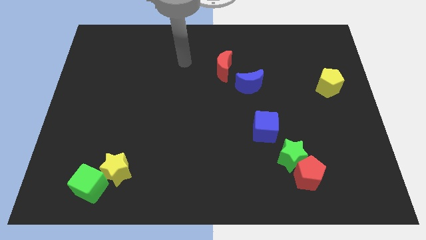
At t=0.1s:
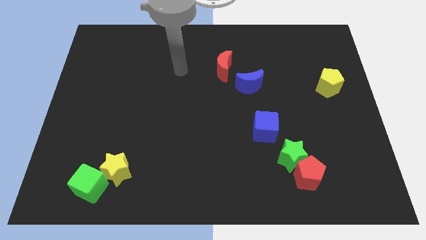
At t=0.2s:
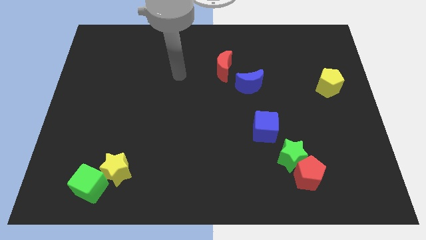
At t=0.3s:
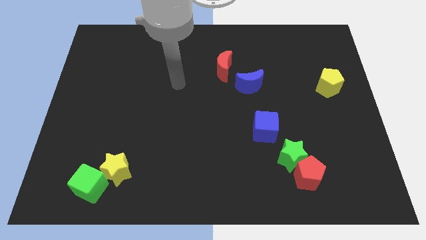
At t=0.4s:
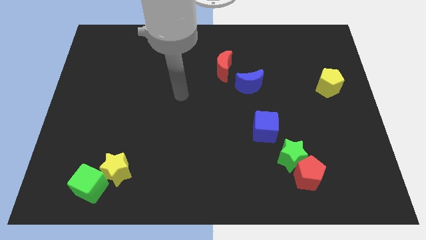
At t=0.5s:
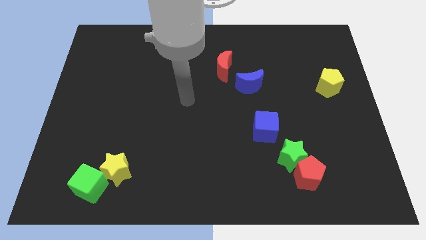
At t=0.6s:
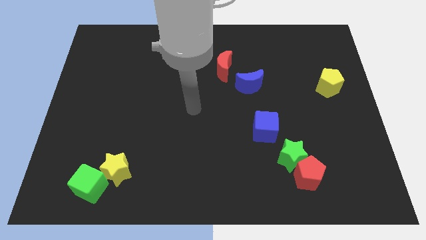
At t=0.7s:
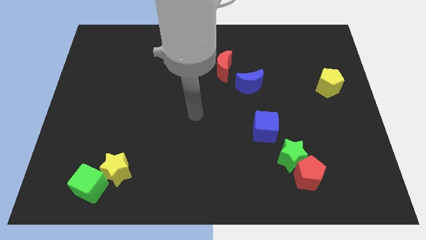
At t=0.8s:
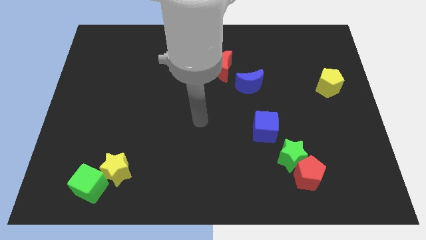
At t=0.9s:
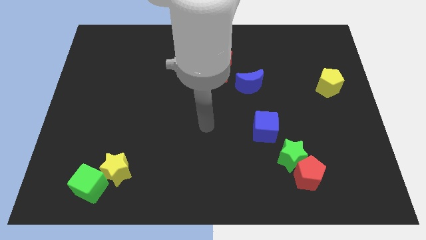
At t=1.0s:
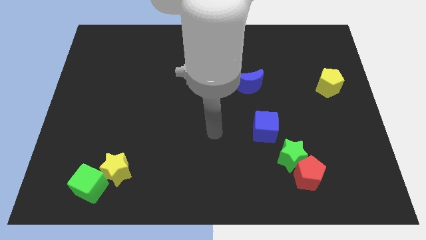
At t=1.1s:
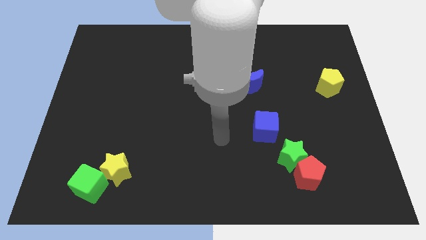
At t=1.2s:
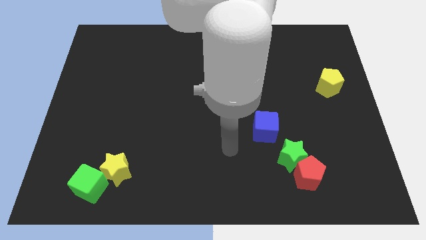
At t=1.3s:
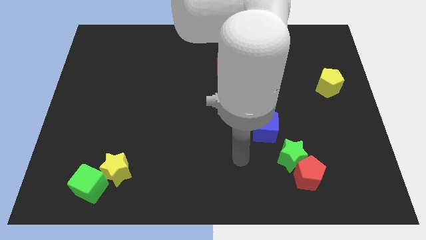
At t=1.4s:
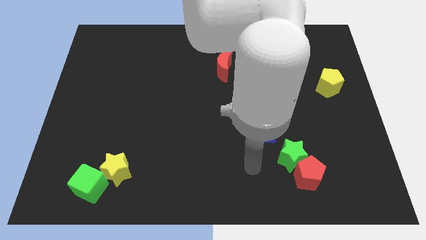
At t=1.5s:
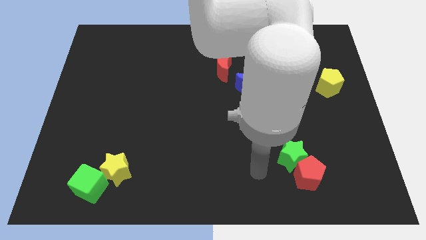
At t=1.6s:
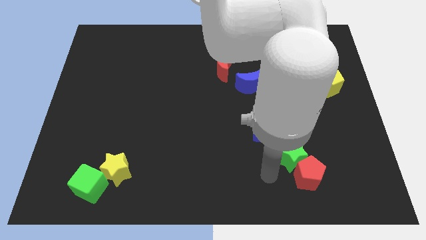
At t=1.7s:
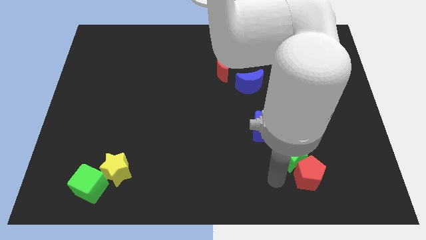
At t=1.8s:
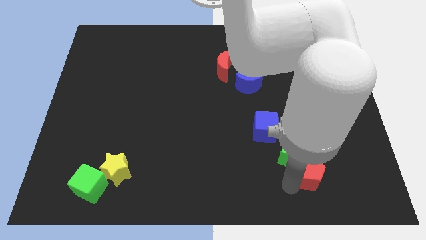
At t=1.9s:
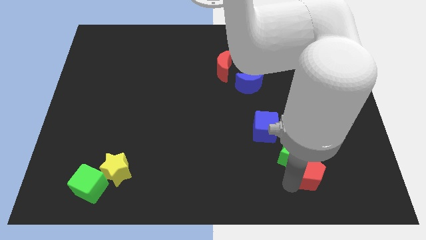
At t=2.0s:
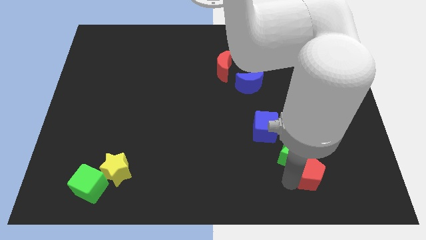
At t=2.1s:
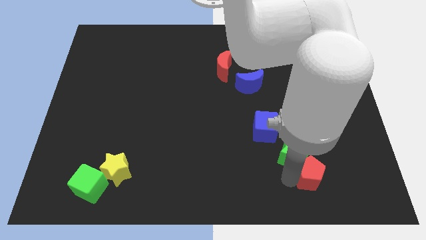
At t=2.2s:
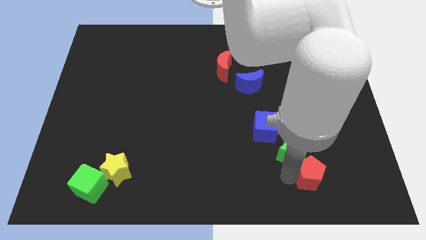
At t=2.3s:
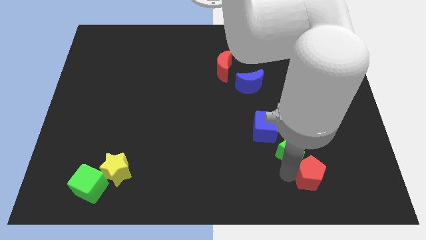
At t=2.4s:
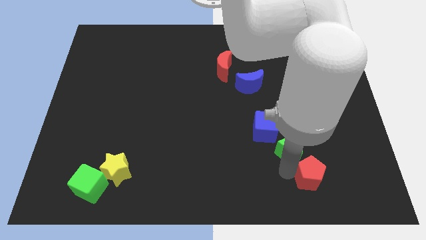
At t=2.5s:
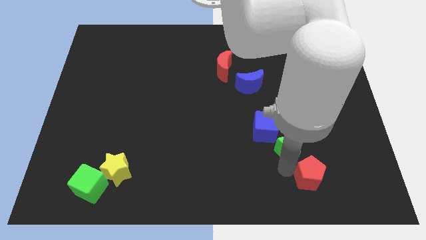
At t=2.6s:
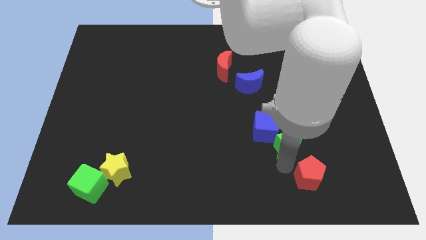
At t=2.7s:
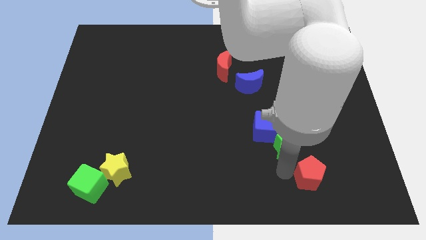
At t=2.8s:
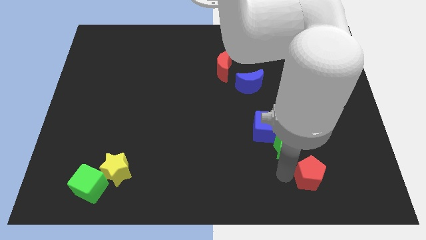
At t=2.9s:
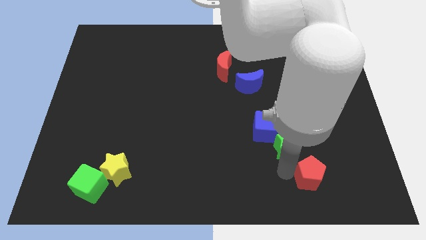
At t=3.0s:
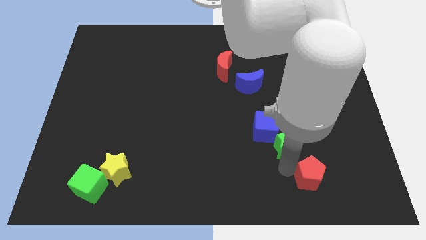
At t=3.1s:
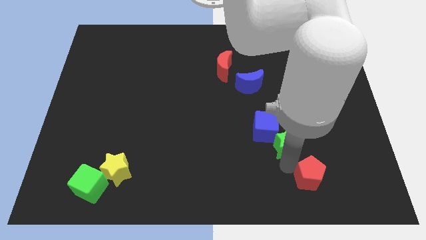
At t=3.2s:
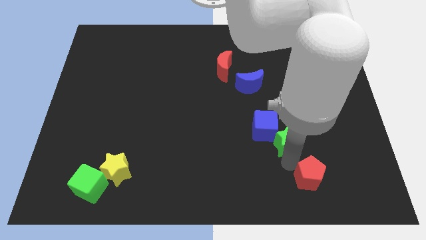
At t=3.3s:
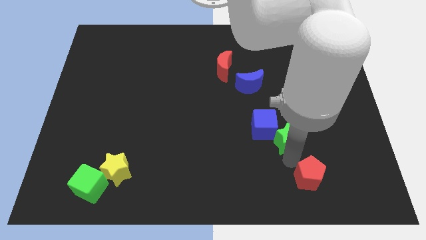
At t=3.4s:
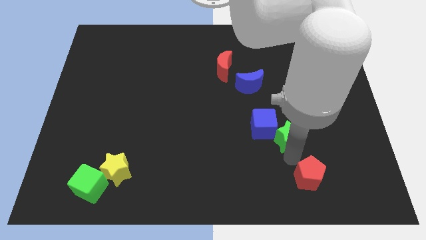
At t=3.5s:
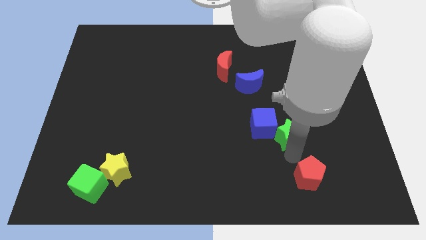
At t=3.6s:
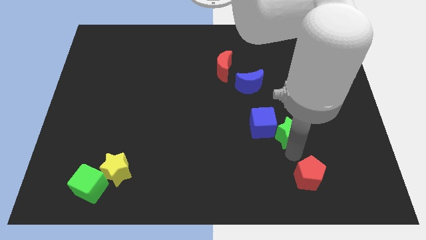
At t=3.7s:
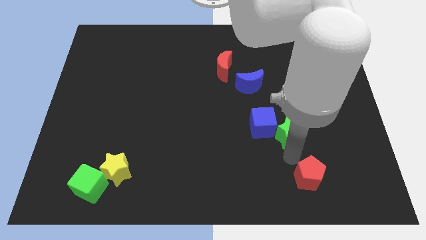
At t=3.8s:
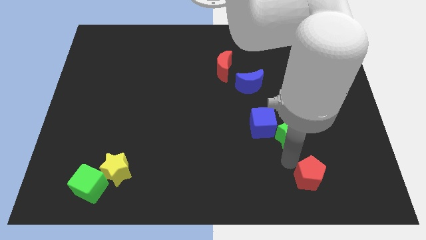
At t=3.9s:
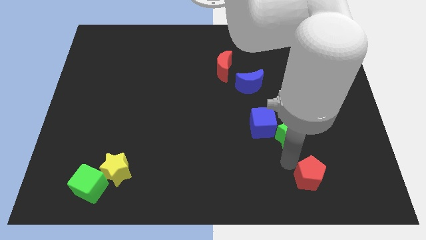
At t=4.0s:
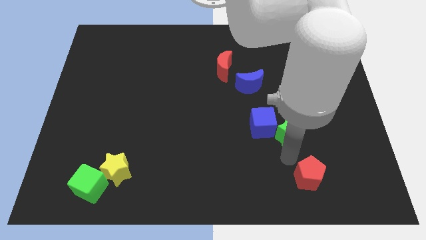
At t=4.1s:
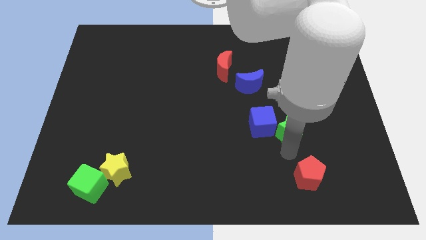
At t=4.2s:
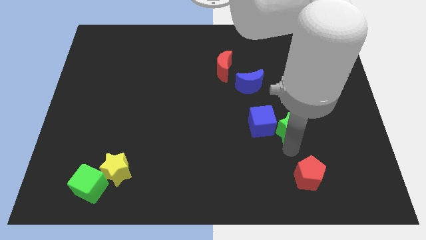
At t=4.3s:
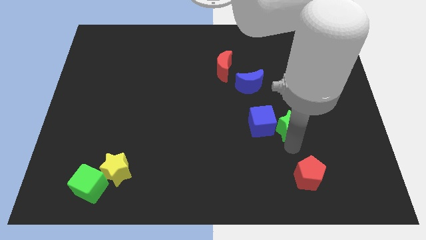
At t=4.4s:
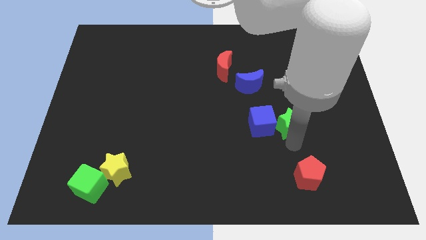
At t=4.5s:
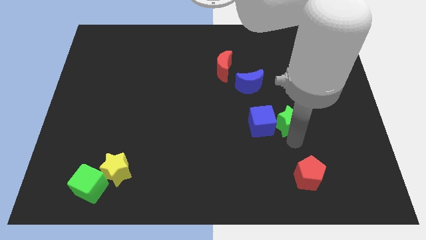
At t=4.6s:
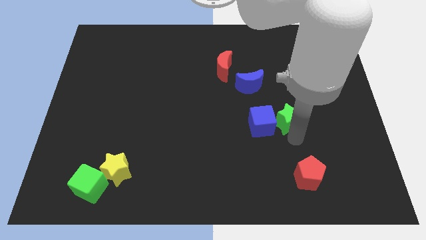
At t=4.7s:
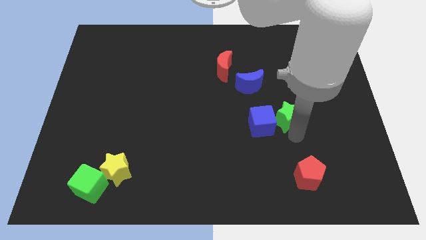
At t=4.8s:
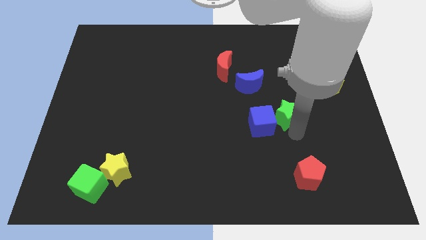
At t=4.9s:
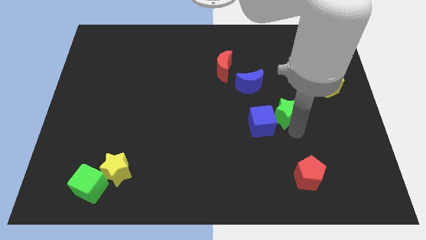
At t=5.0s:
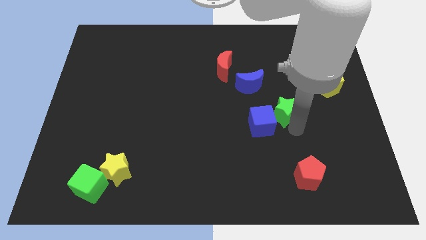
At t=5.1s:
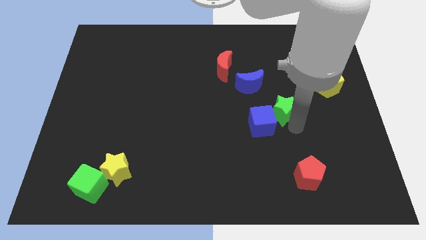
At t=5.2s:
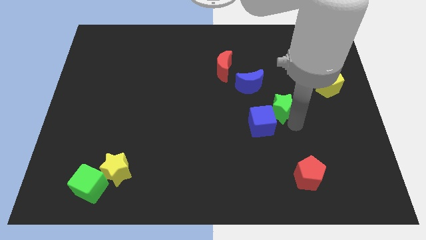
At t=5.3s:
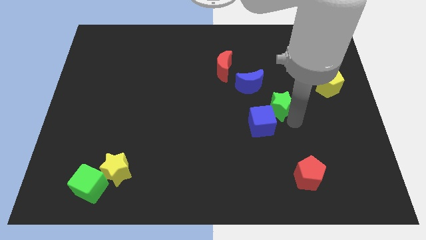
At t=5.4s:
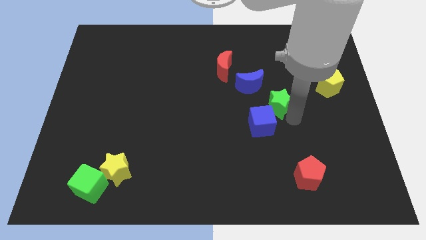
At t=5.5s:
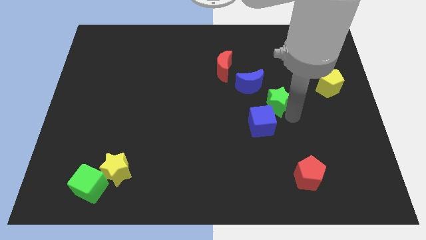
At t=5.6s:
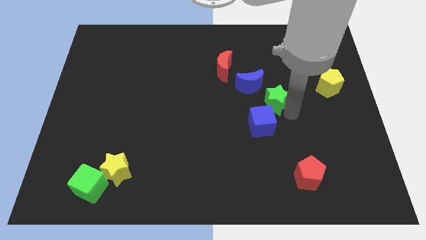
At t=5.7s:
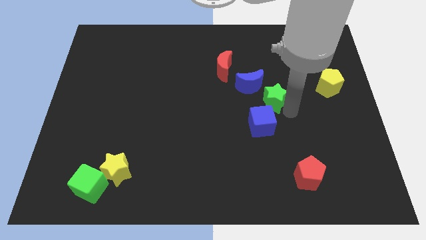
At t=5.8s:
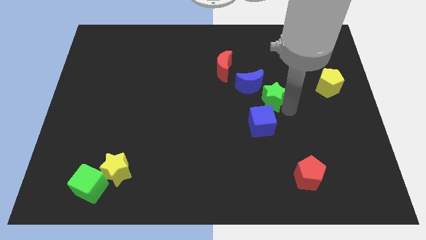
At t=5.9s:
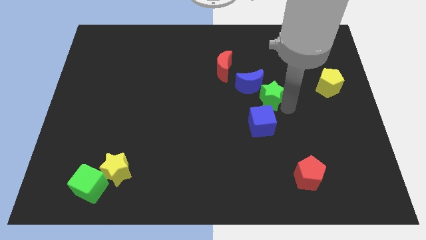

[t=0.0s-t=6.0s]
slide the green star next to the blue moon

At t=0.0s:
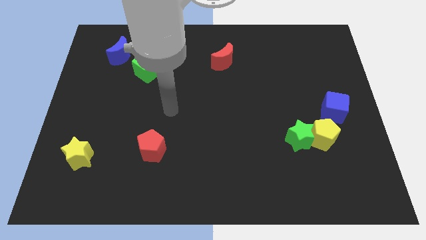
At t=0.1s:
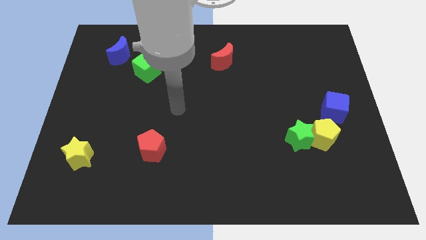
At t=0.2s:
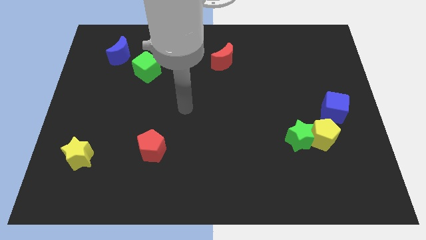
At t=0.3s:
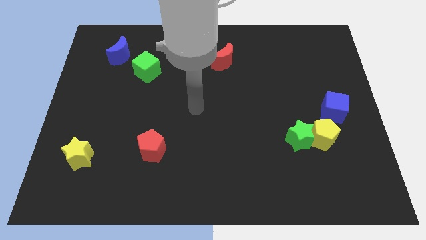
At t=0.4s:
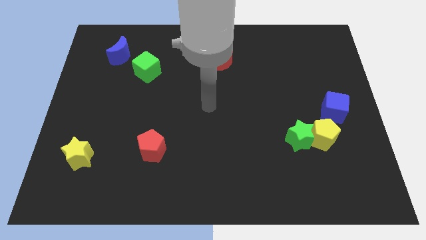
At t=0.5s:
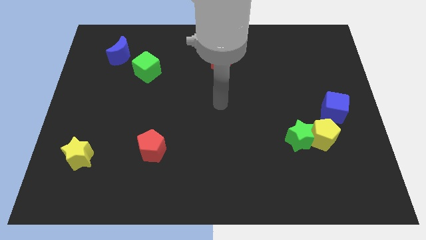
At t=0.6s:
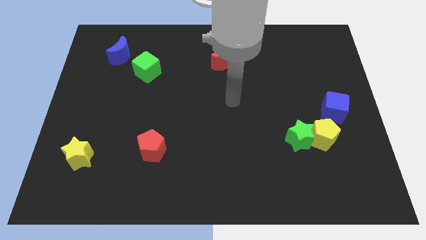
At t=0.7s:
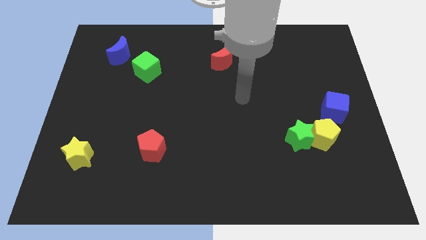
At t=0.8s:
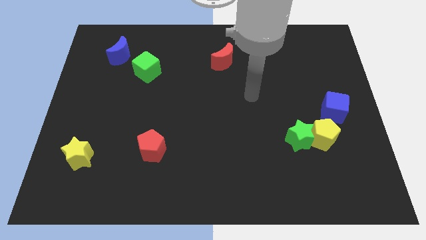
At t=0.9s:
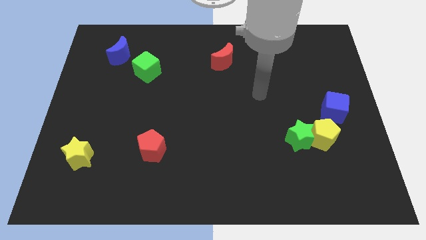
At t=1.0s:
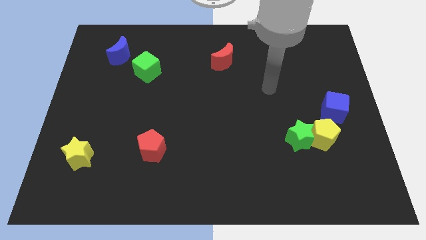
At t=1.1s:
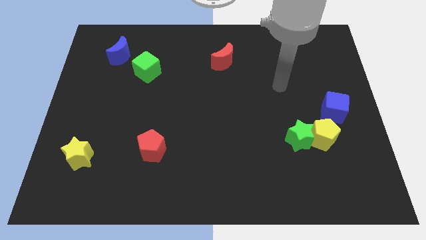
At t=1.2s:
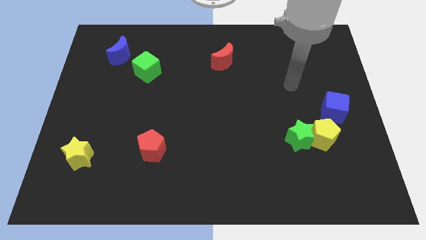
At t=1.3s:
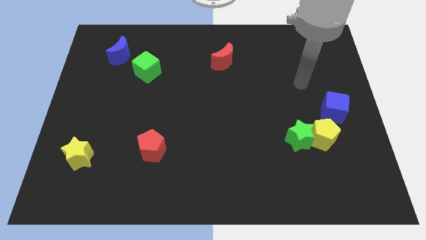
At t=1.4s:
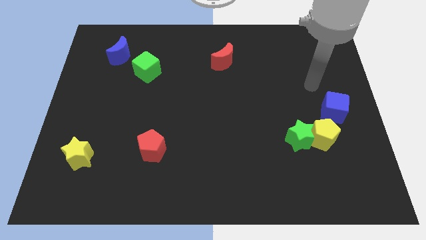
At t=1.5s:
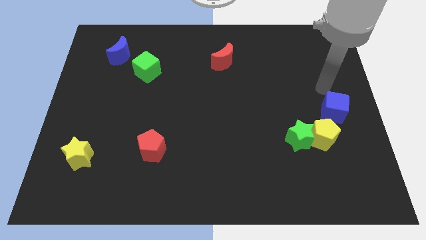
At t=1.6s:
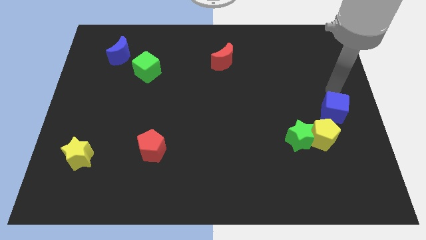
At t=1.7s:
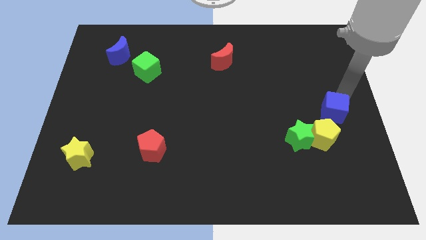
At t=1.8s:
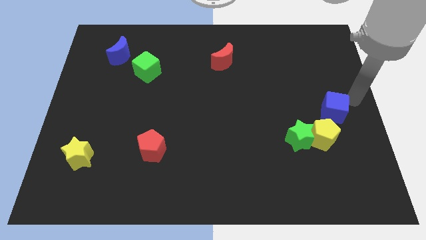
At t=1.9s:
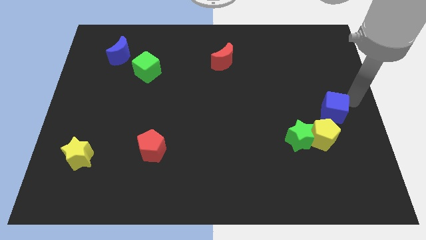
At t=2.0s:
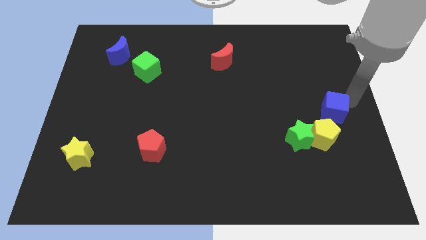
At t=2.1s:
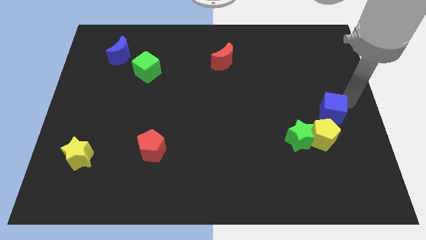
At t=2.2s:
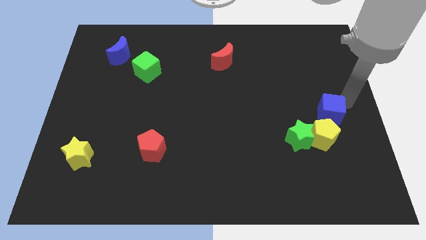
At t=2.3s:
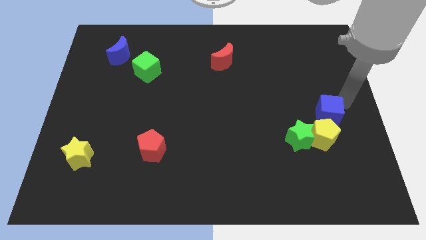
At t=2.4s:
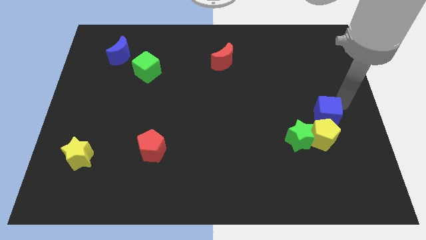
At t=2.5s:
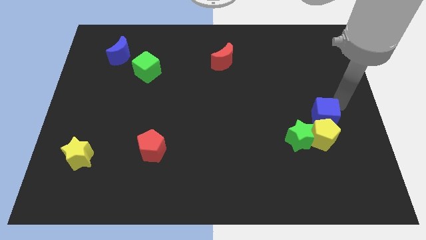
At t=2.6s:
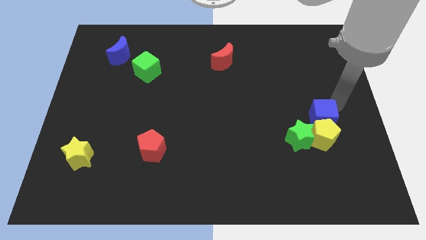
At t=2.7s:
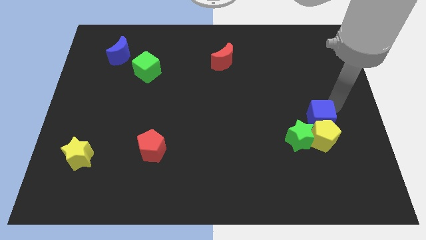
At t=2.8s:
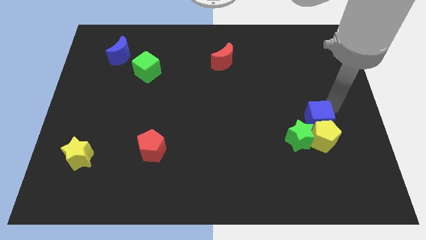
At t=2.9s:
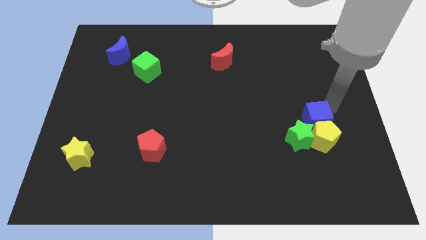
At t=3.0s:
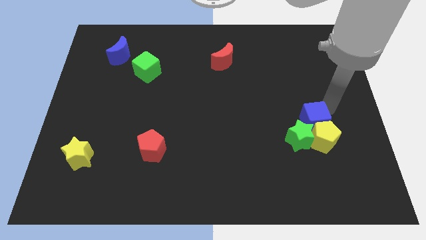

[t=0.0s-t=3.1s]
push the blue cube towards the green star
